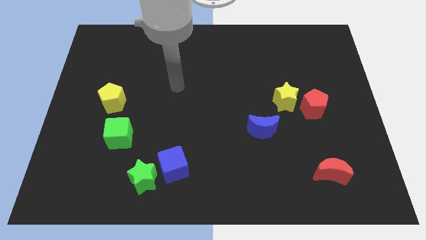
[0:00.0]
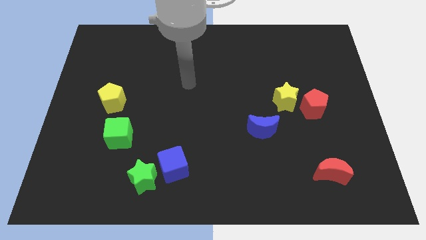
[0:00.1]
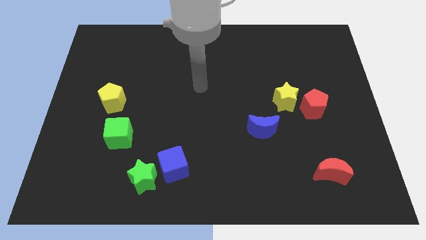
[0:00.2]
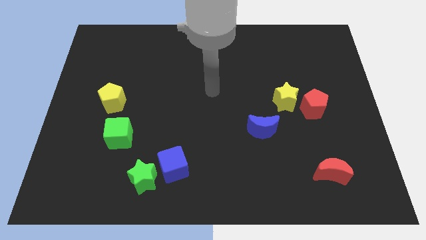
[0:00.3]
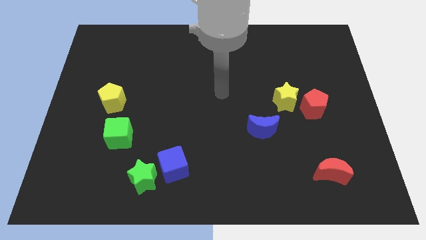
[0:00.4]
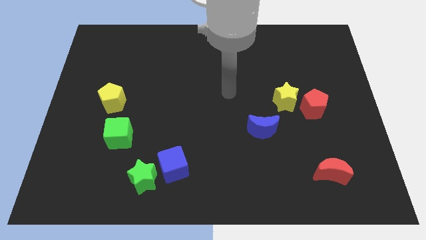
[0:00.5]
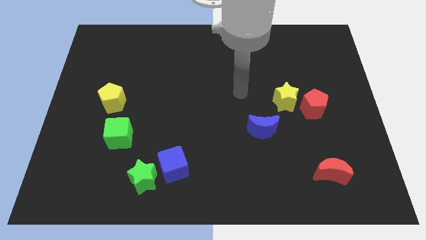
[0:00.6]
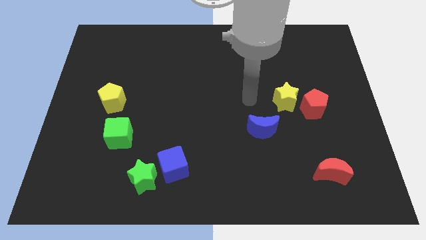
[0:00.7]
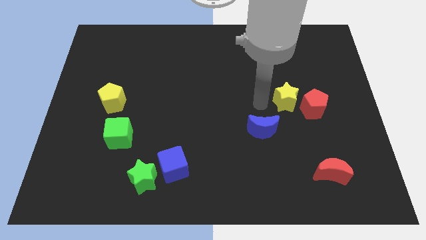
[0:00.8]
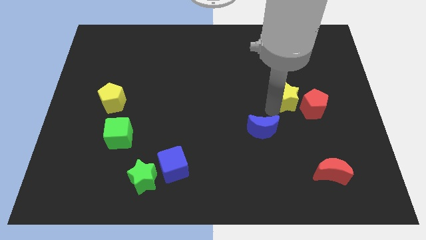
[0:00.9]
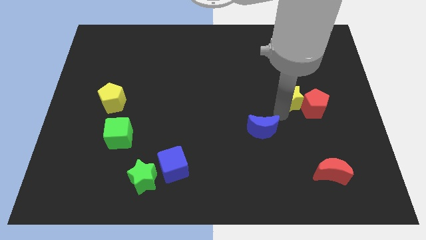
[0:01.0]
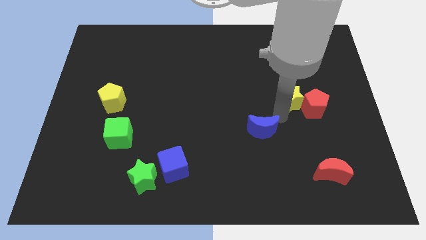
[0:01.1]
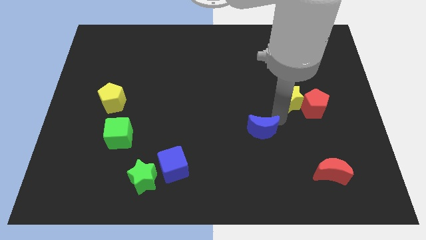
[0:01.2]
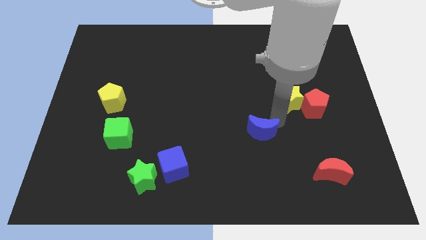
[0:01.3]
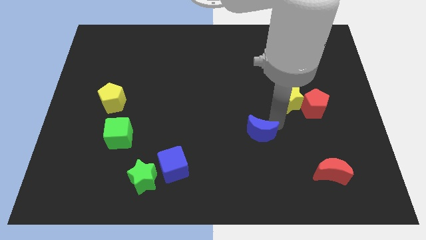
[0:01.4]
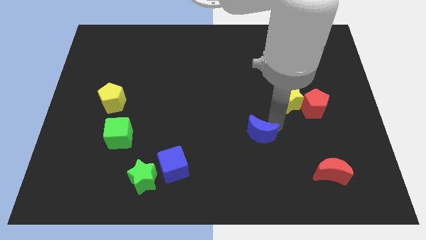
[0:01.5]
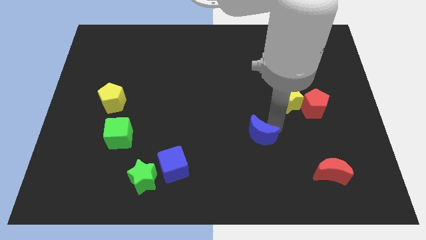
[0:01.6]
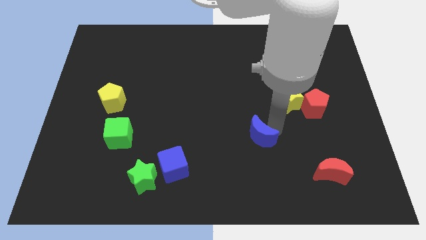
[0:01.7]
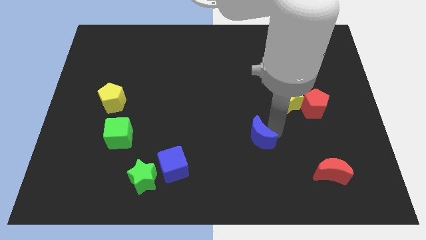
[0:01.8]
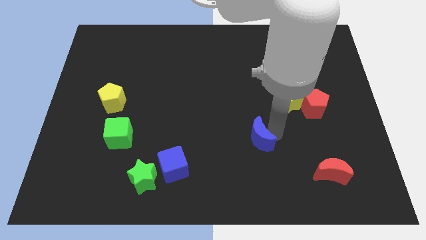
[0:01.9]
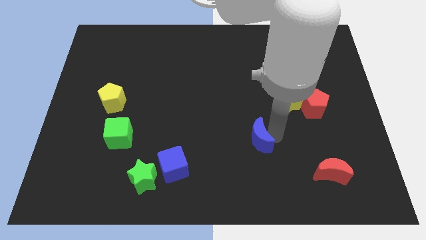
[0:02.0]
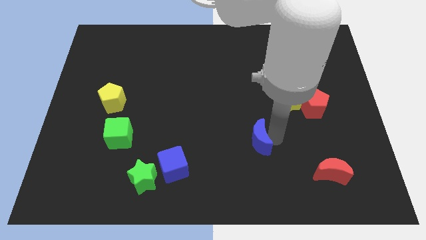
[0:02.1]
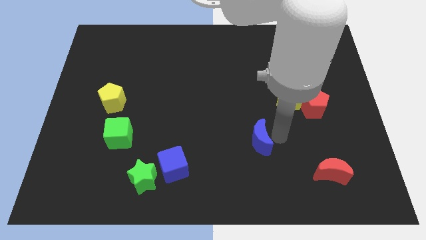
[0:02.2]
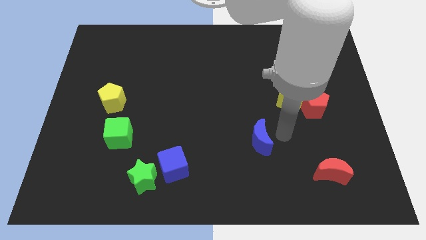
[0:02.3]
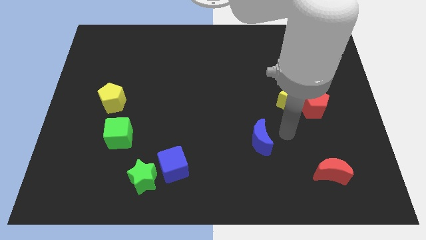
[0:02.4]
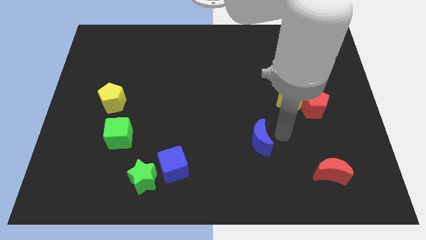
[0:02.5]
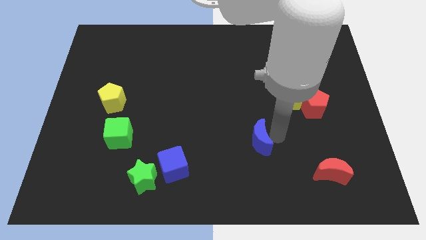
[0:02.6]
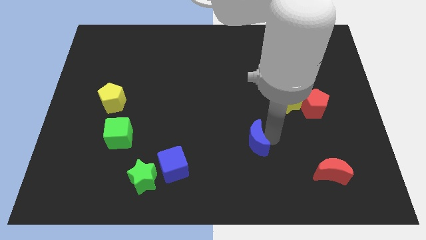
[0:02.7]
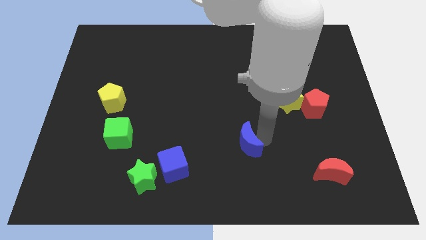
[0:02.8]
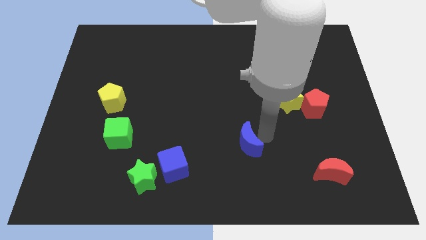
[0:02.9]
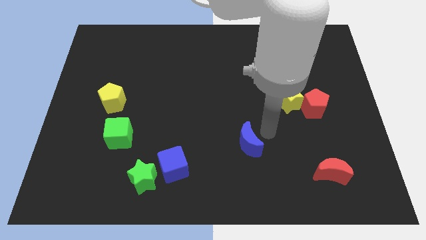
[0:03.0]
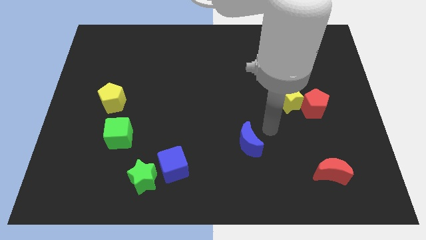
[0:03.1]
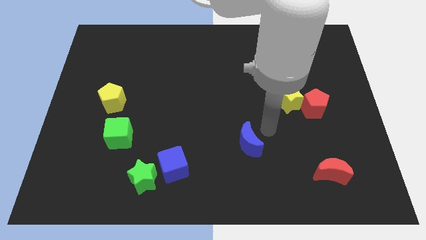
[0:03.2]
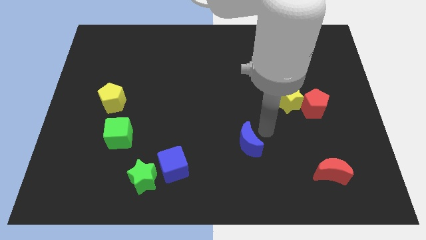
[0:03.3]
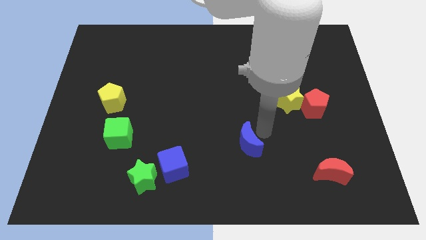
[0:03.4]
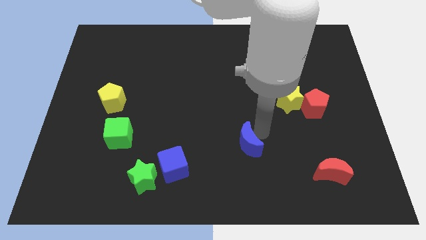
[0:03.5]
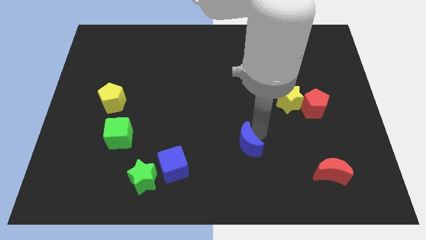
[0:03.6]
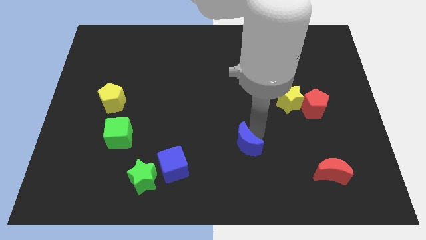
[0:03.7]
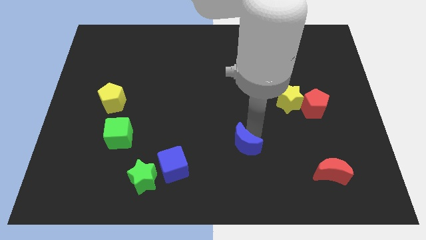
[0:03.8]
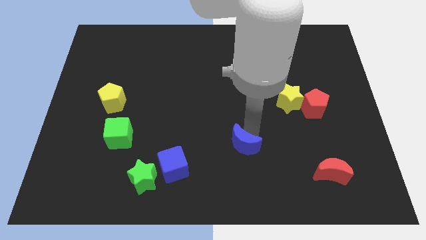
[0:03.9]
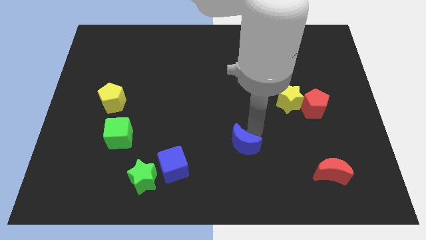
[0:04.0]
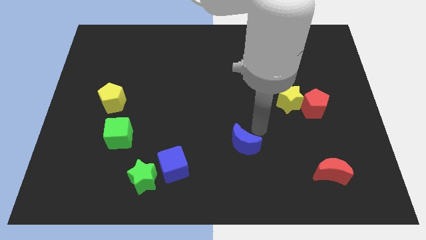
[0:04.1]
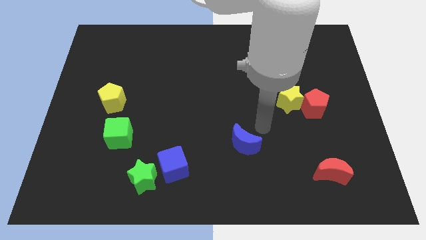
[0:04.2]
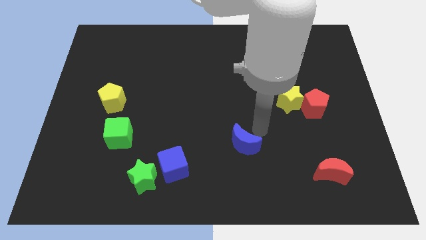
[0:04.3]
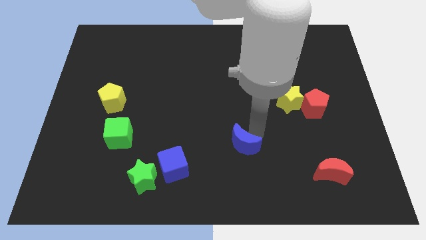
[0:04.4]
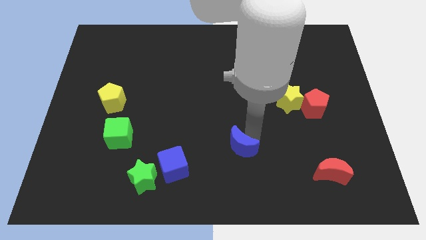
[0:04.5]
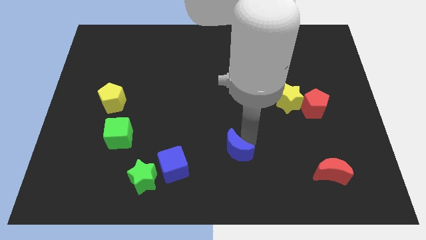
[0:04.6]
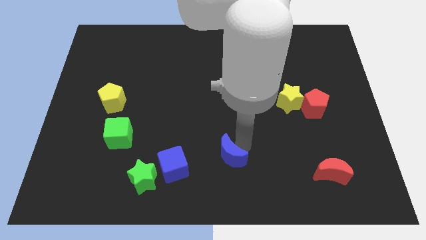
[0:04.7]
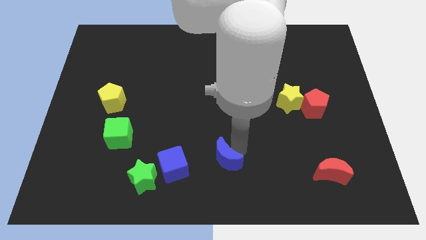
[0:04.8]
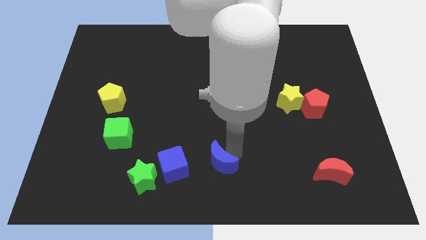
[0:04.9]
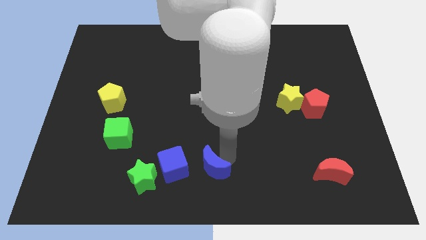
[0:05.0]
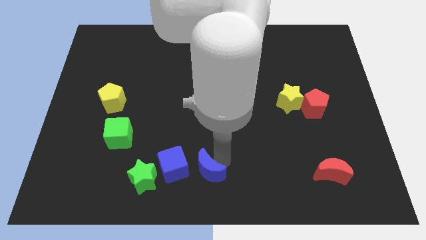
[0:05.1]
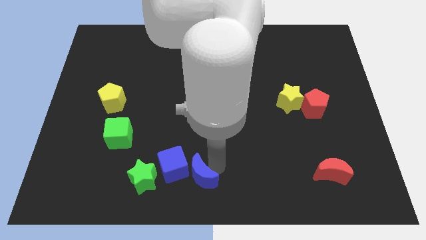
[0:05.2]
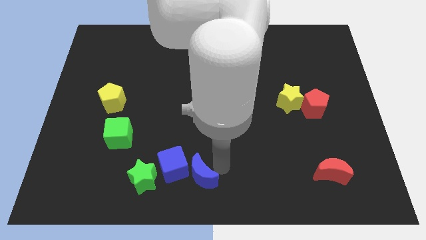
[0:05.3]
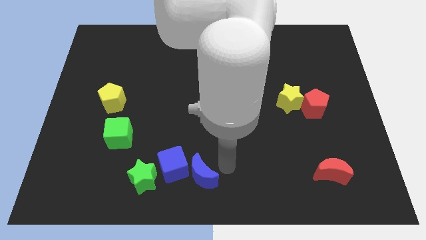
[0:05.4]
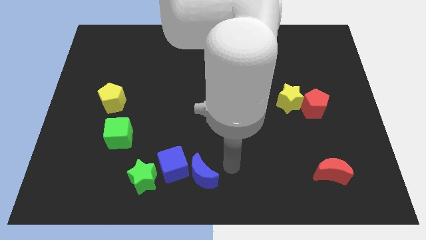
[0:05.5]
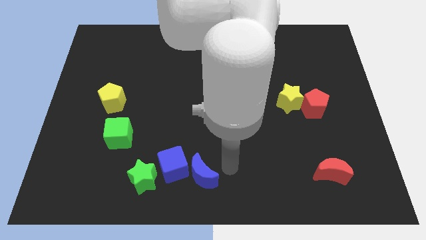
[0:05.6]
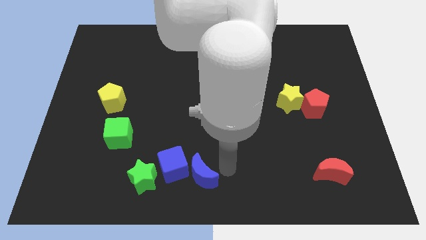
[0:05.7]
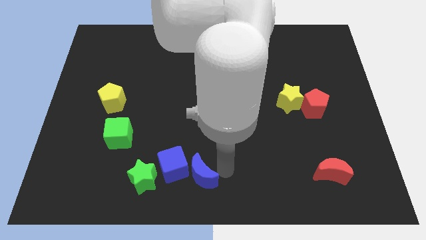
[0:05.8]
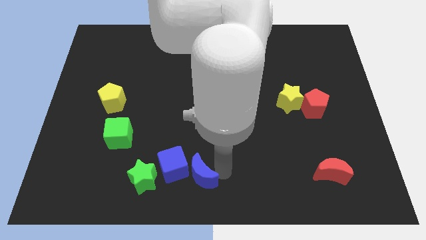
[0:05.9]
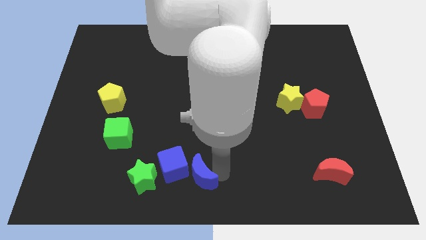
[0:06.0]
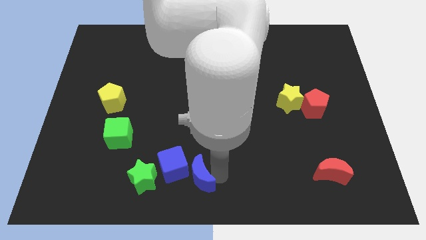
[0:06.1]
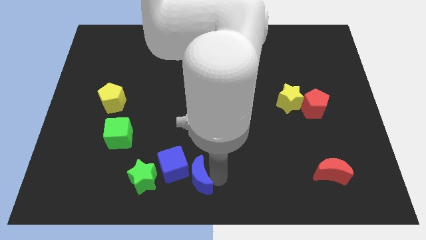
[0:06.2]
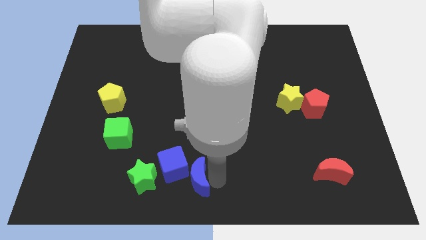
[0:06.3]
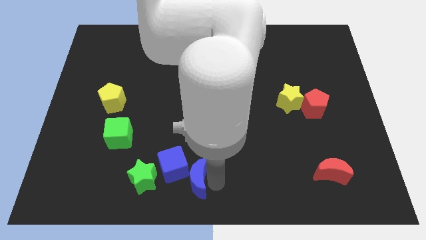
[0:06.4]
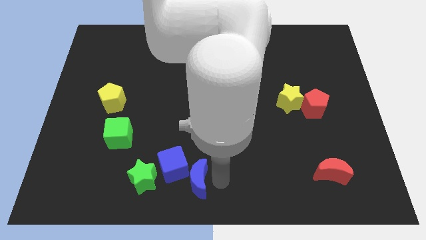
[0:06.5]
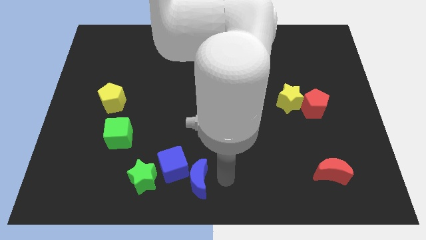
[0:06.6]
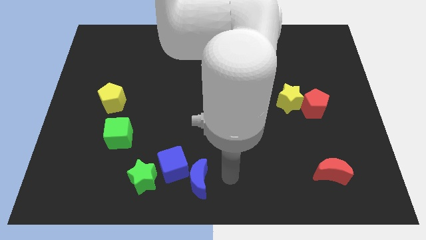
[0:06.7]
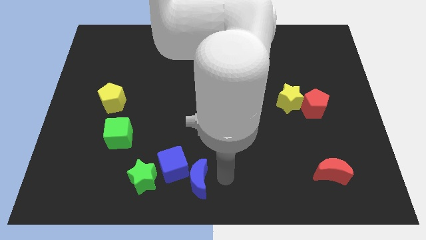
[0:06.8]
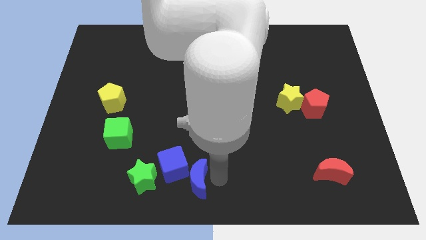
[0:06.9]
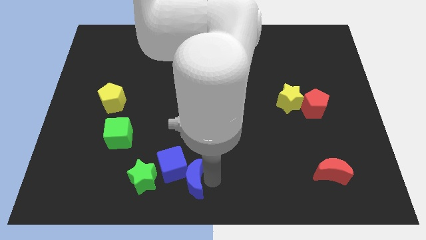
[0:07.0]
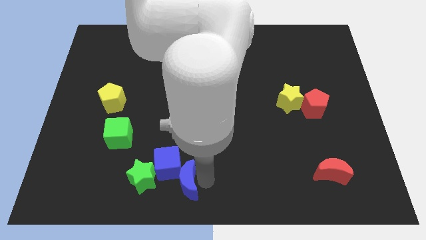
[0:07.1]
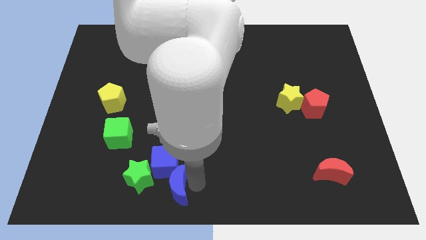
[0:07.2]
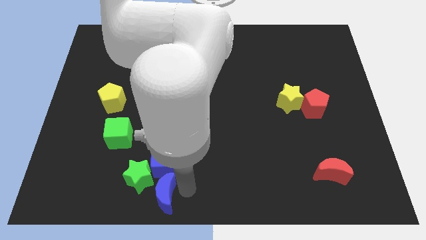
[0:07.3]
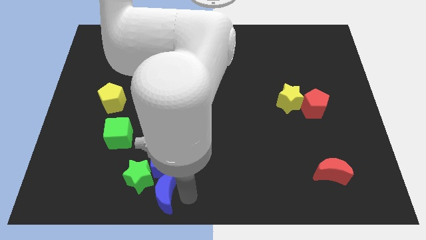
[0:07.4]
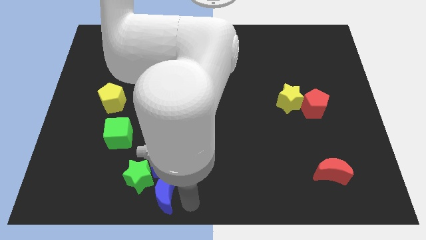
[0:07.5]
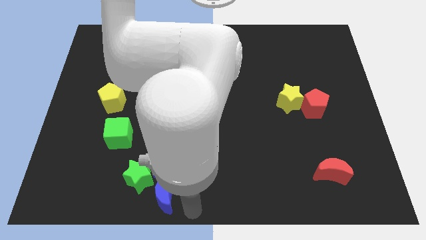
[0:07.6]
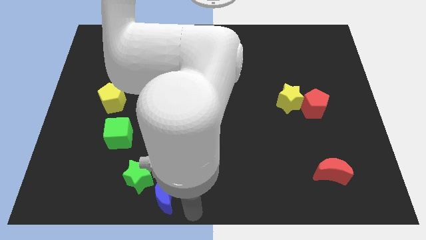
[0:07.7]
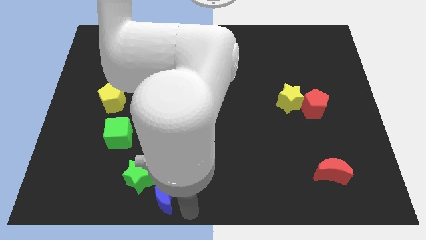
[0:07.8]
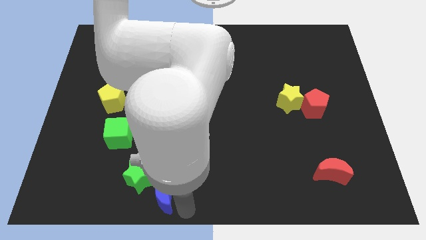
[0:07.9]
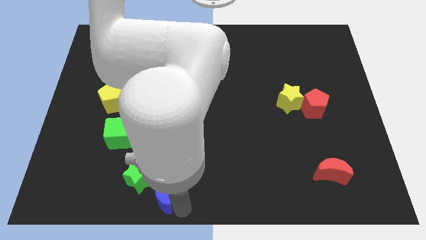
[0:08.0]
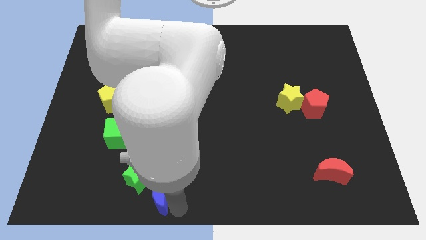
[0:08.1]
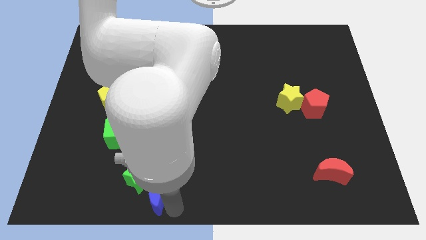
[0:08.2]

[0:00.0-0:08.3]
move the blue moon close to the green star
